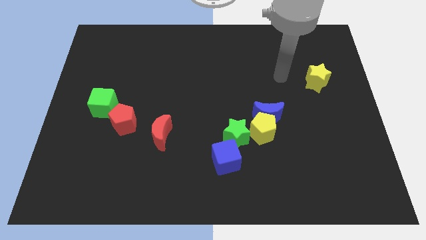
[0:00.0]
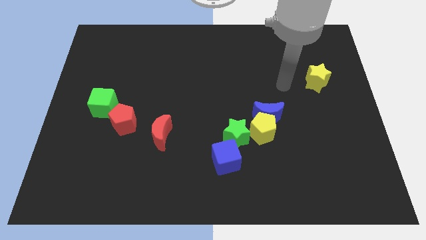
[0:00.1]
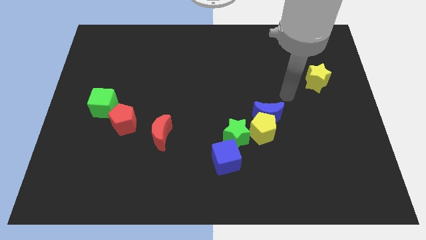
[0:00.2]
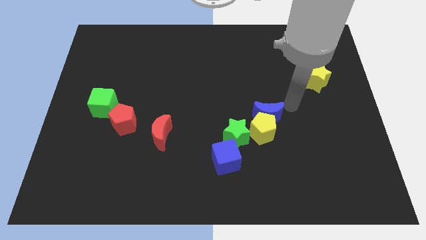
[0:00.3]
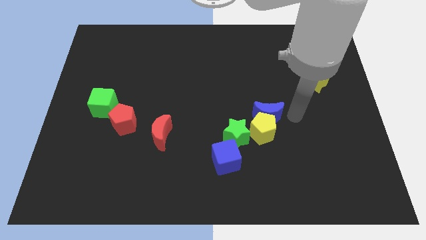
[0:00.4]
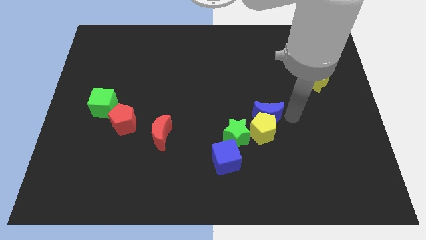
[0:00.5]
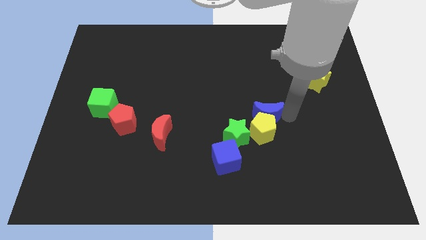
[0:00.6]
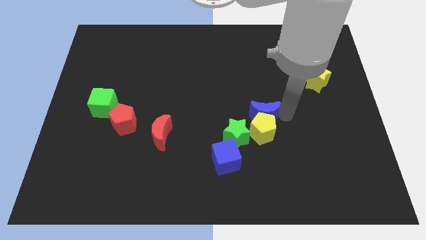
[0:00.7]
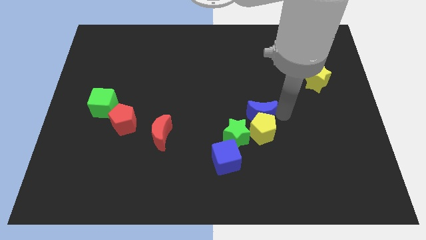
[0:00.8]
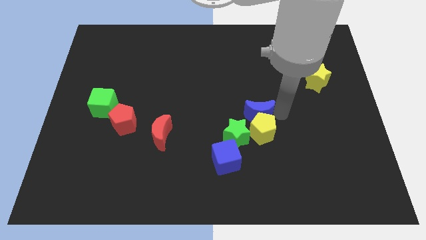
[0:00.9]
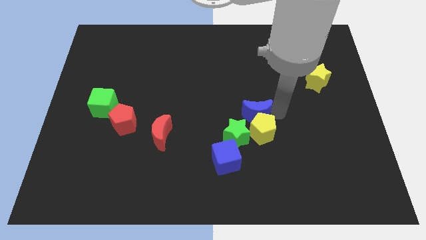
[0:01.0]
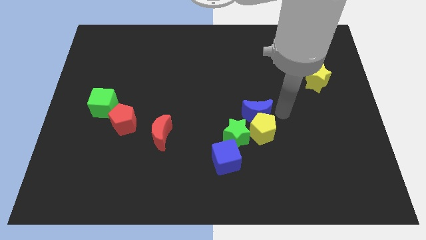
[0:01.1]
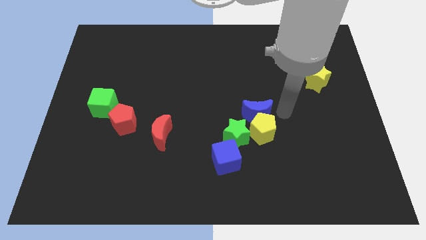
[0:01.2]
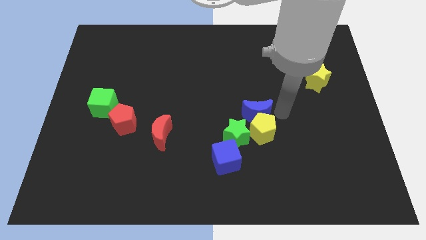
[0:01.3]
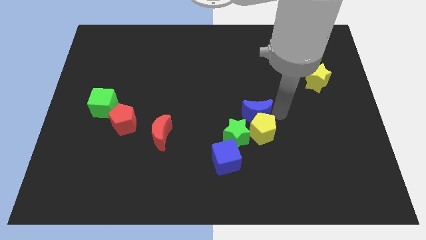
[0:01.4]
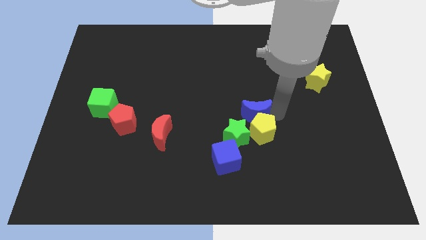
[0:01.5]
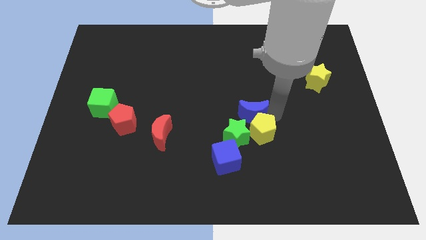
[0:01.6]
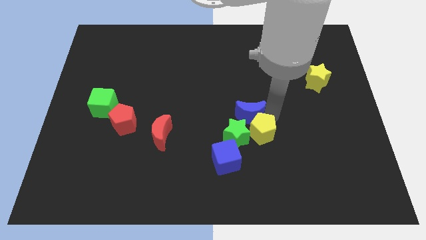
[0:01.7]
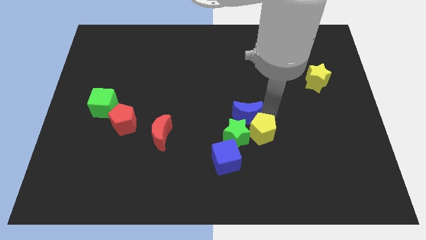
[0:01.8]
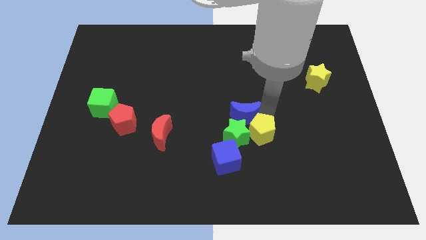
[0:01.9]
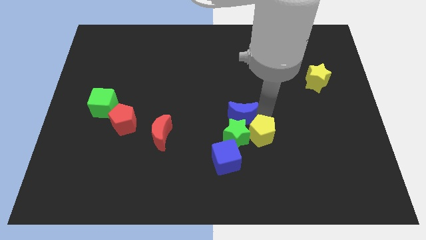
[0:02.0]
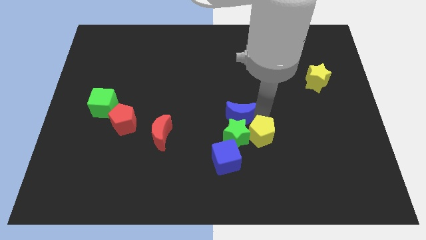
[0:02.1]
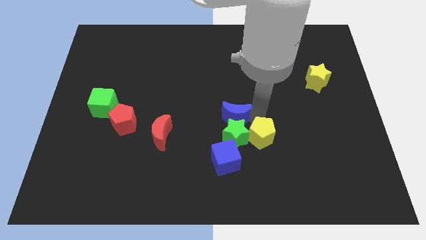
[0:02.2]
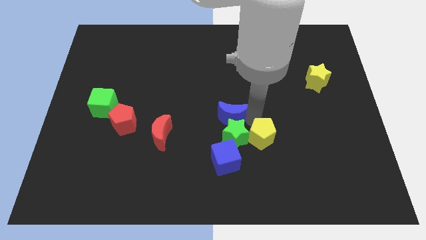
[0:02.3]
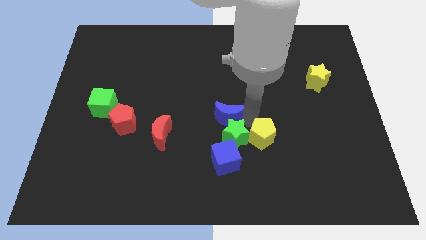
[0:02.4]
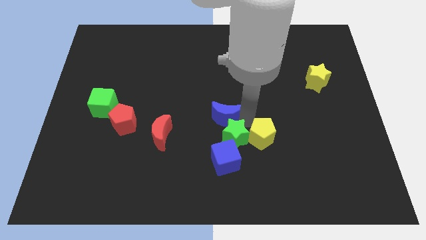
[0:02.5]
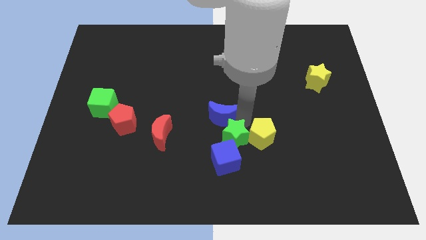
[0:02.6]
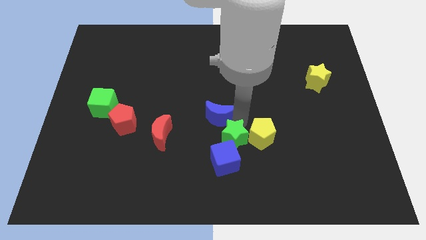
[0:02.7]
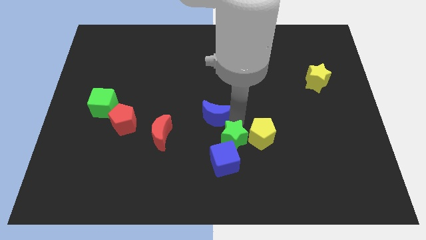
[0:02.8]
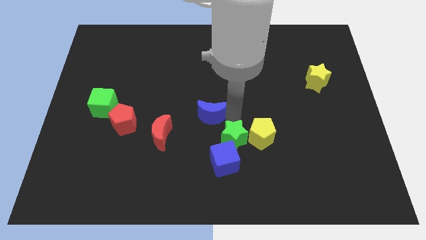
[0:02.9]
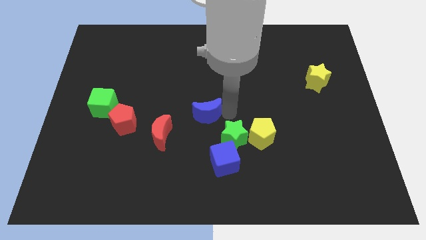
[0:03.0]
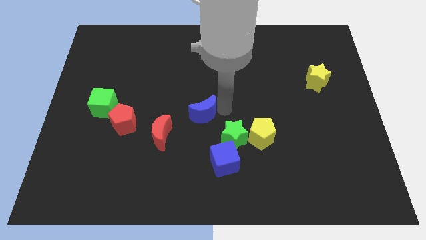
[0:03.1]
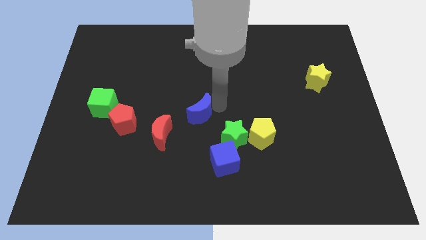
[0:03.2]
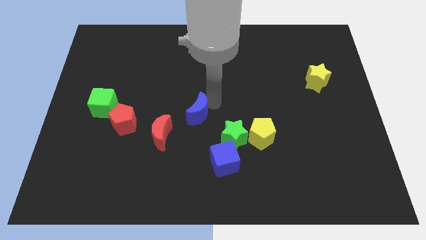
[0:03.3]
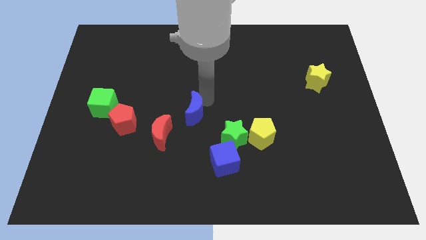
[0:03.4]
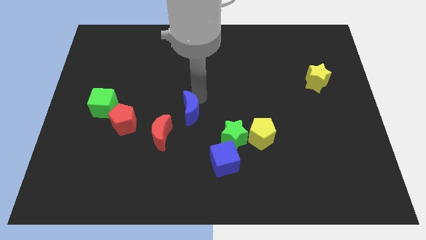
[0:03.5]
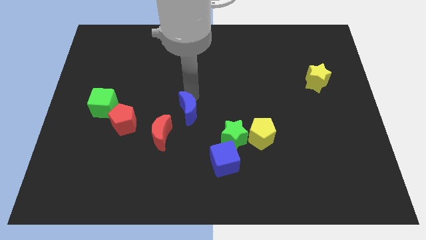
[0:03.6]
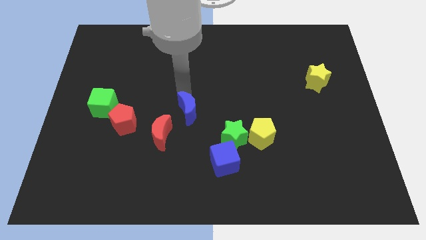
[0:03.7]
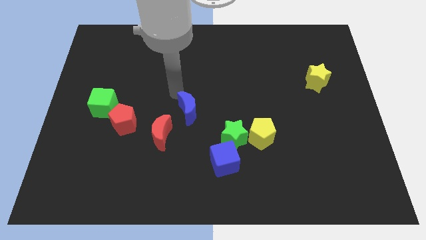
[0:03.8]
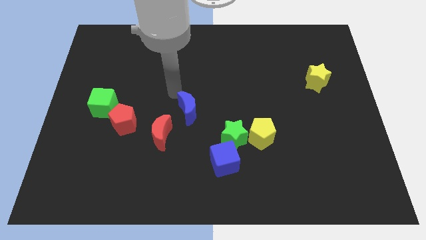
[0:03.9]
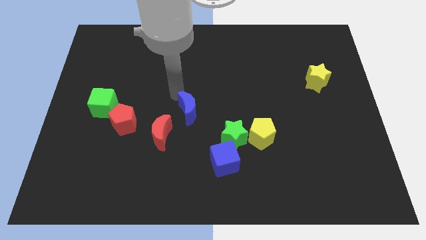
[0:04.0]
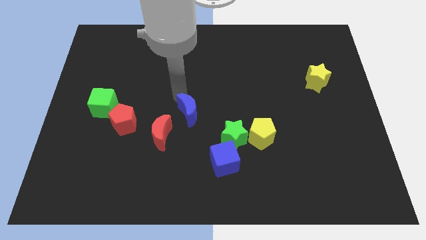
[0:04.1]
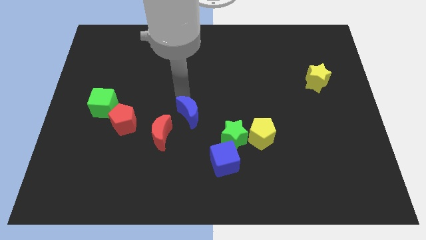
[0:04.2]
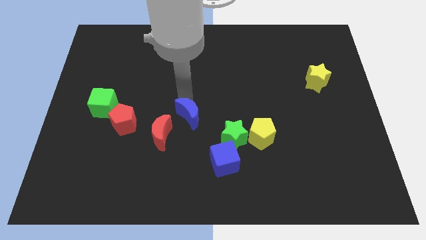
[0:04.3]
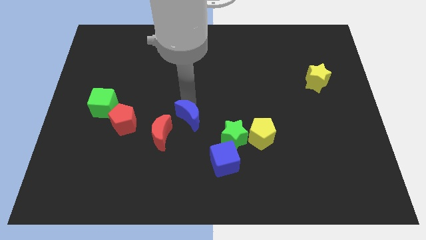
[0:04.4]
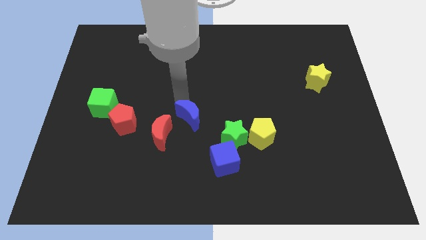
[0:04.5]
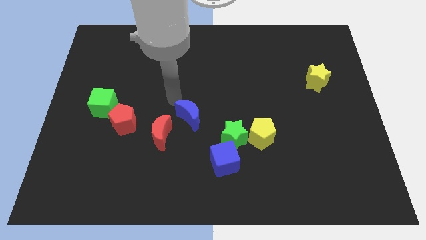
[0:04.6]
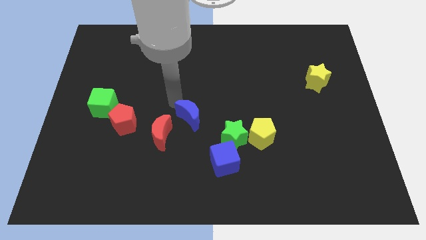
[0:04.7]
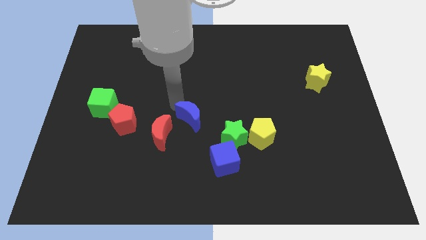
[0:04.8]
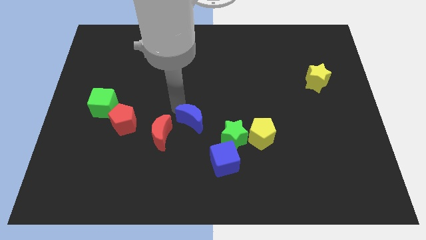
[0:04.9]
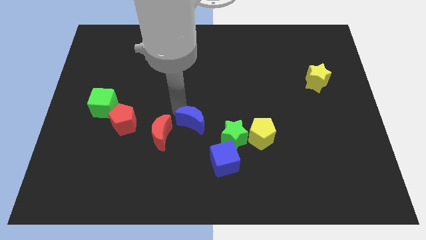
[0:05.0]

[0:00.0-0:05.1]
slide the blue moon a little downwards and then left

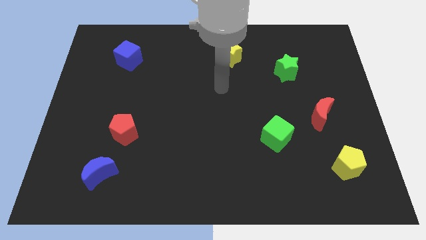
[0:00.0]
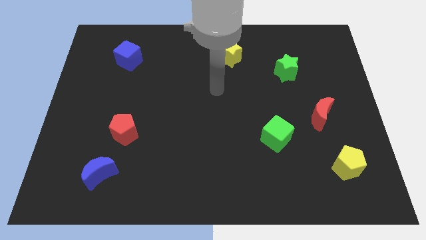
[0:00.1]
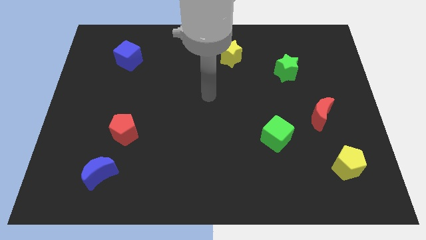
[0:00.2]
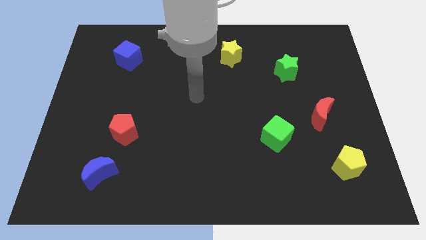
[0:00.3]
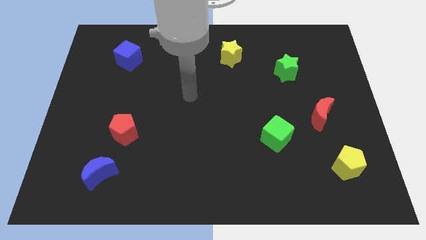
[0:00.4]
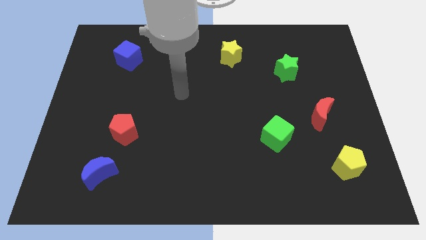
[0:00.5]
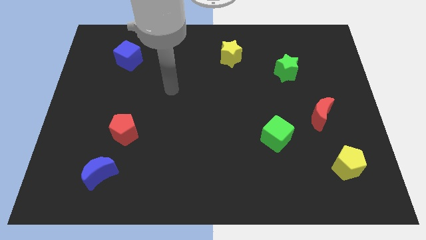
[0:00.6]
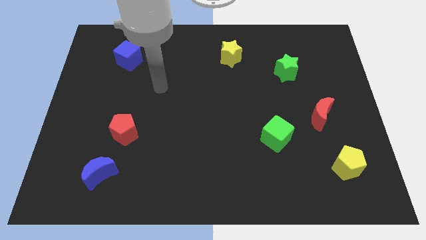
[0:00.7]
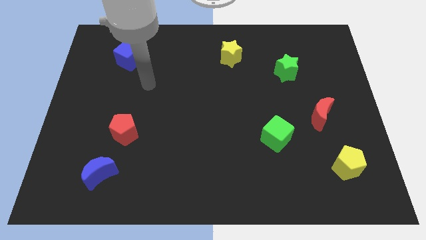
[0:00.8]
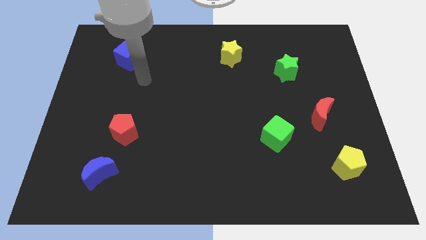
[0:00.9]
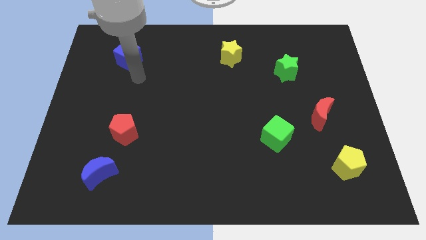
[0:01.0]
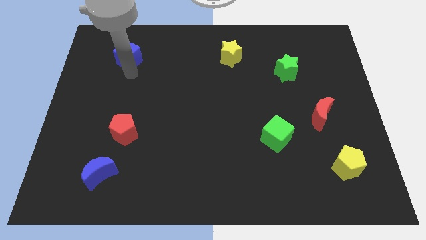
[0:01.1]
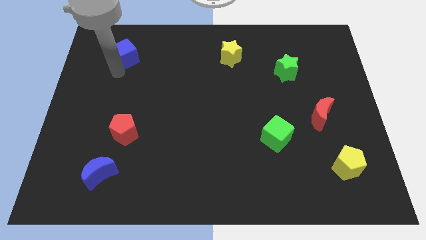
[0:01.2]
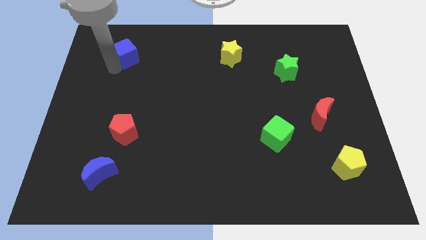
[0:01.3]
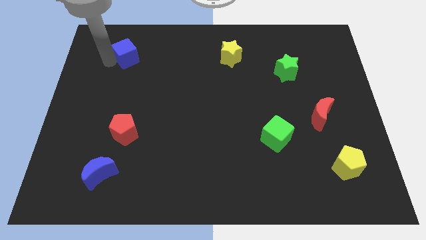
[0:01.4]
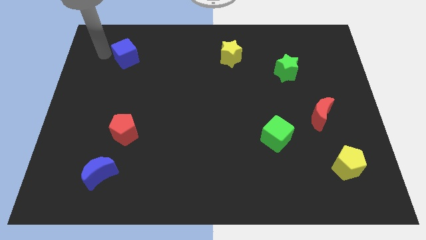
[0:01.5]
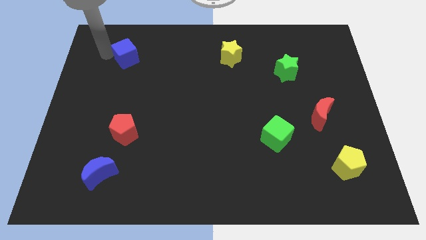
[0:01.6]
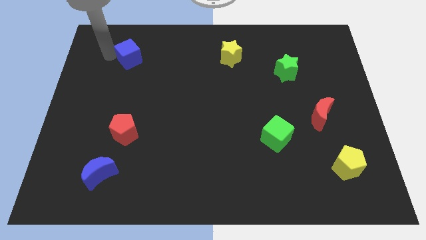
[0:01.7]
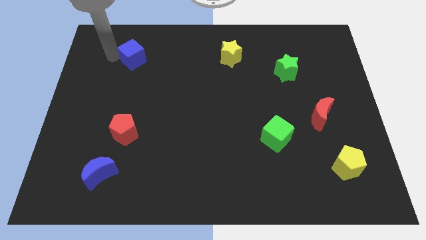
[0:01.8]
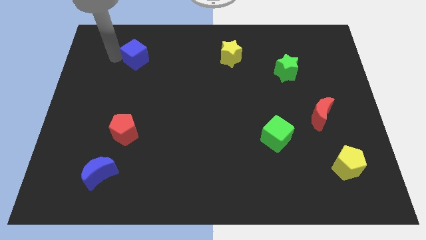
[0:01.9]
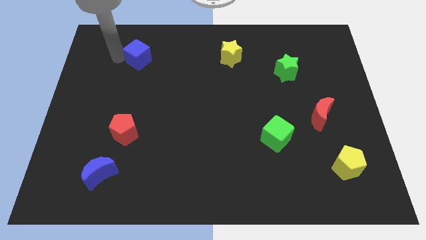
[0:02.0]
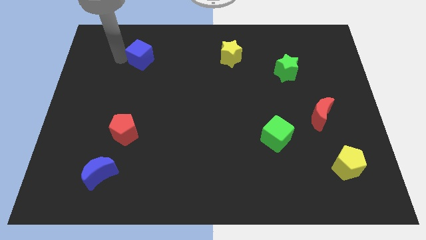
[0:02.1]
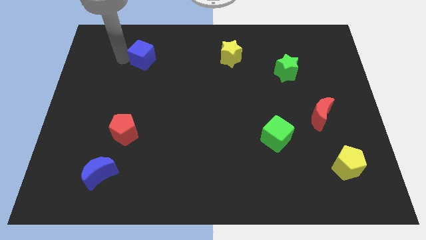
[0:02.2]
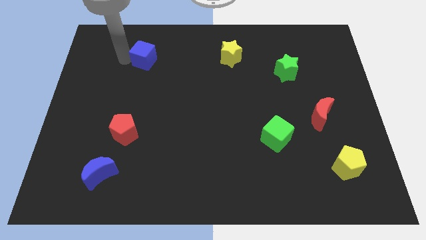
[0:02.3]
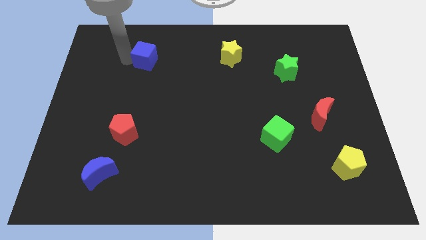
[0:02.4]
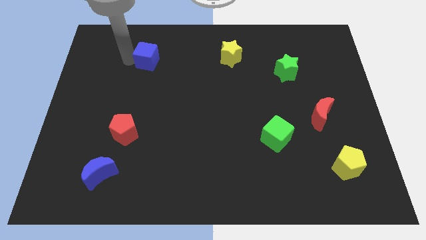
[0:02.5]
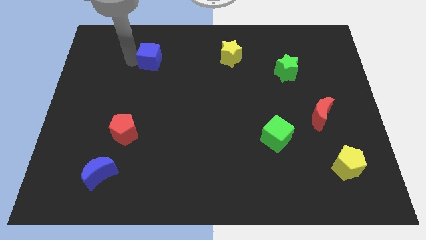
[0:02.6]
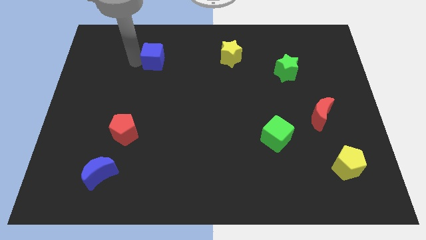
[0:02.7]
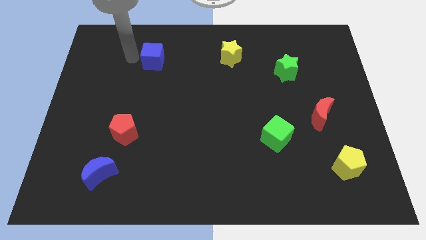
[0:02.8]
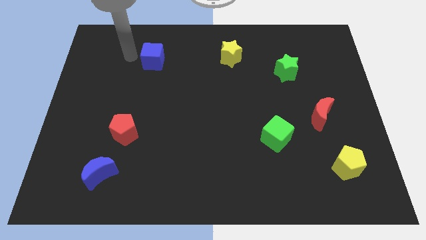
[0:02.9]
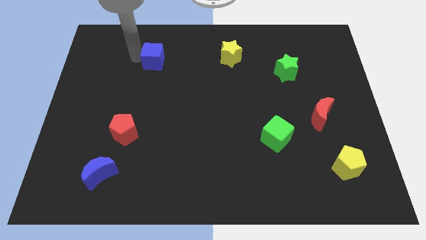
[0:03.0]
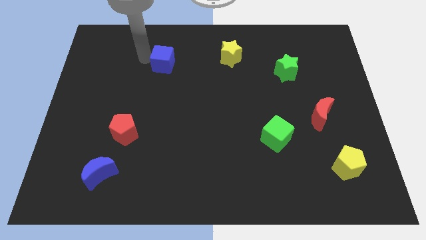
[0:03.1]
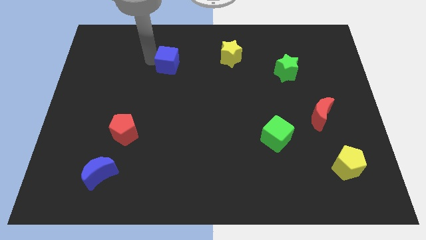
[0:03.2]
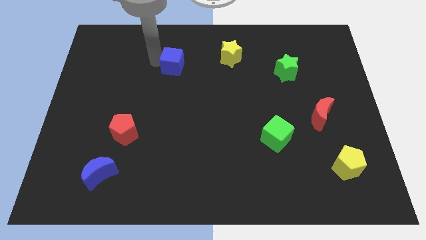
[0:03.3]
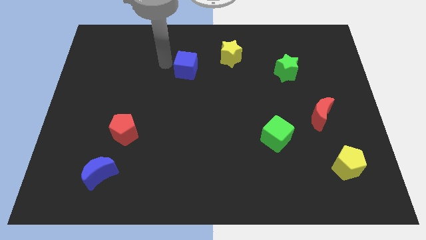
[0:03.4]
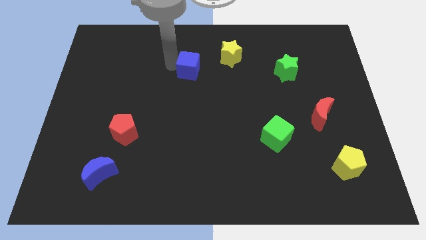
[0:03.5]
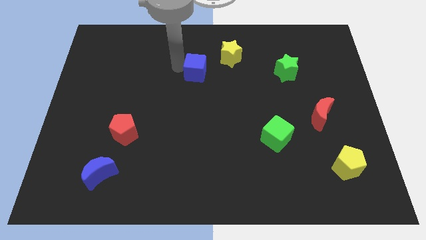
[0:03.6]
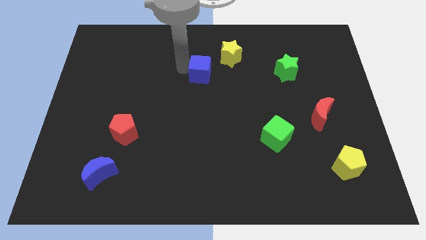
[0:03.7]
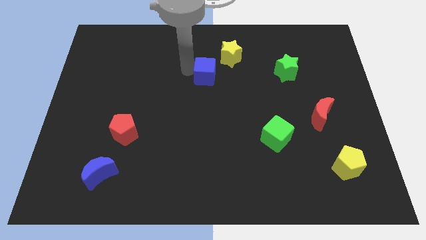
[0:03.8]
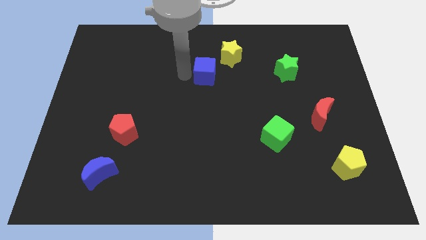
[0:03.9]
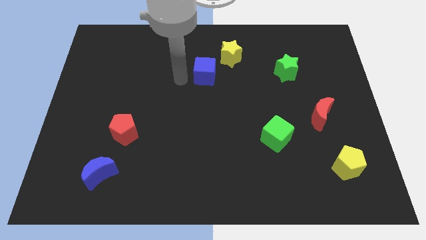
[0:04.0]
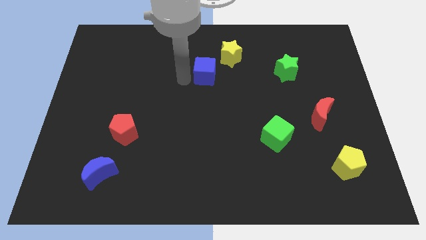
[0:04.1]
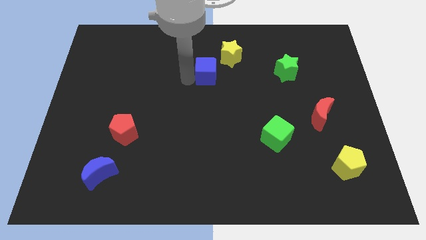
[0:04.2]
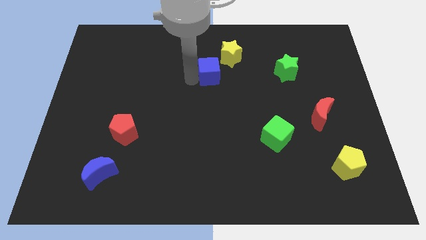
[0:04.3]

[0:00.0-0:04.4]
push the blue cube right
